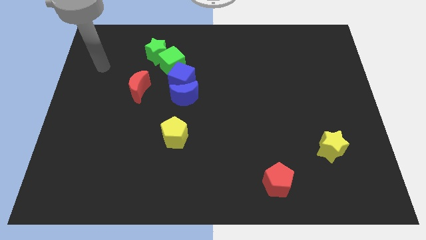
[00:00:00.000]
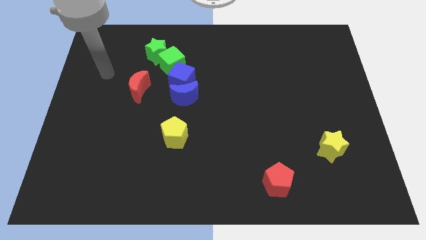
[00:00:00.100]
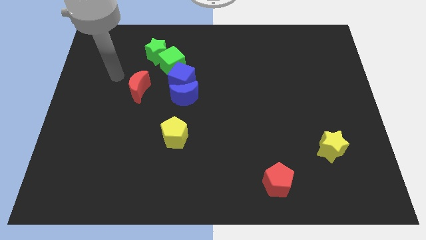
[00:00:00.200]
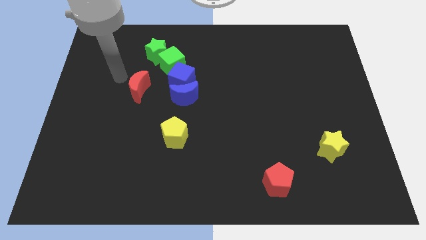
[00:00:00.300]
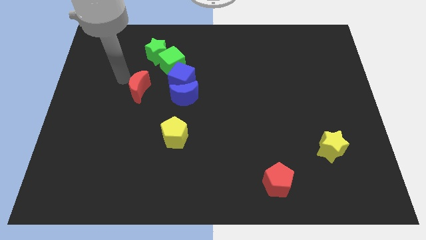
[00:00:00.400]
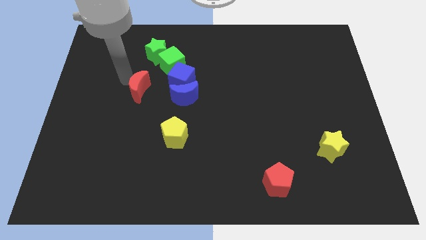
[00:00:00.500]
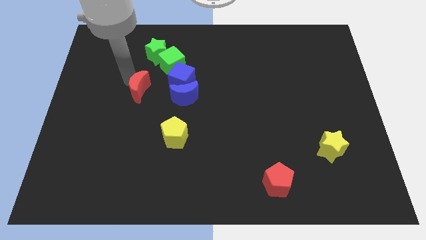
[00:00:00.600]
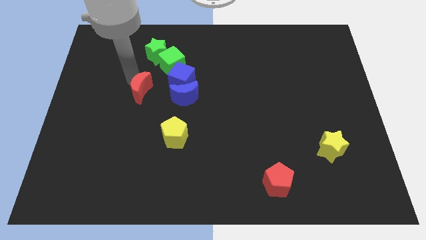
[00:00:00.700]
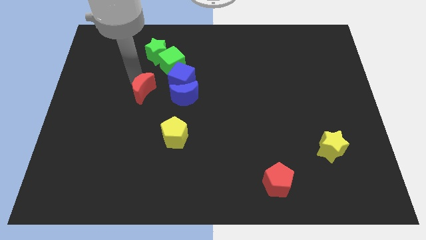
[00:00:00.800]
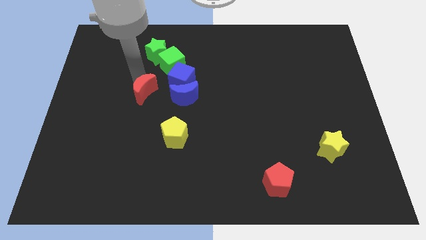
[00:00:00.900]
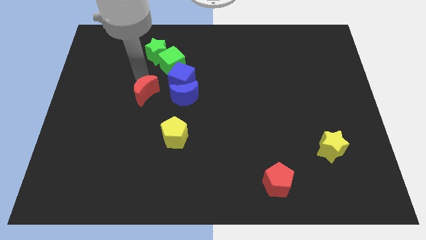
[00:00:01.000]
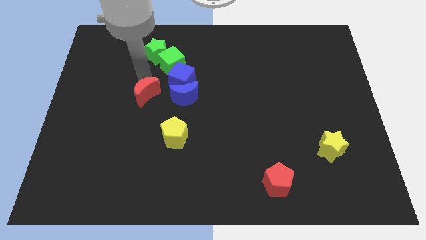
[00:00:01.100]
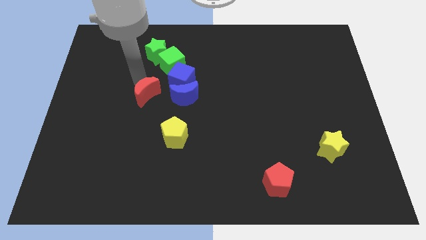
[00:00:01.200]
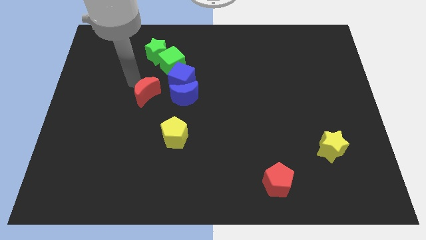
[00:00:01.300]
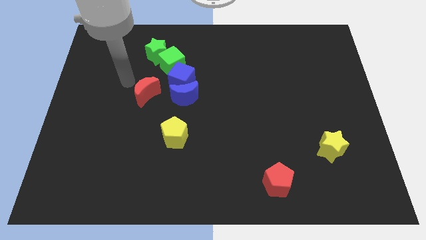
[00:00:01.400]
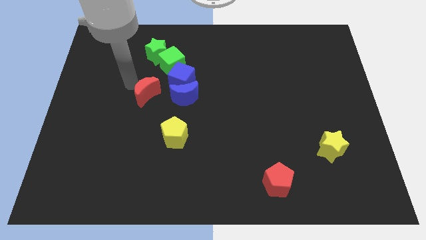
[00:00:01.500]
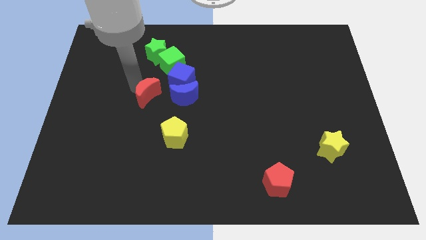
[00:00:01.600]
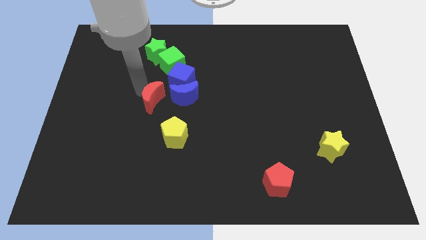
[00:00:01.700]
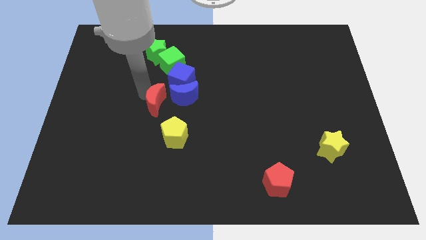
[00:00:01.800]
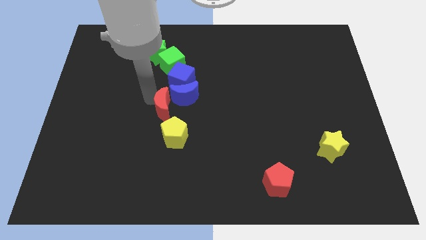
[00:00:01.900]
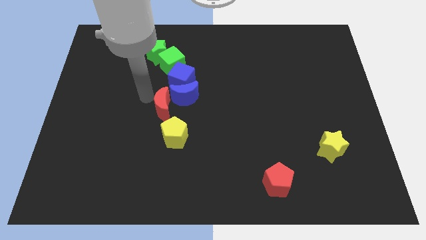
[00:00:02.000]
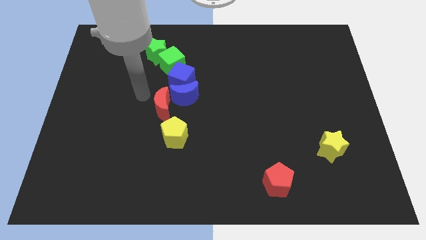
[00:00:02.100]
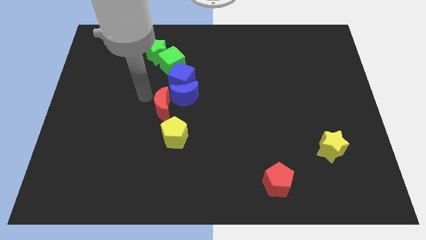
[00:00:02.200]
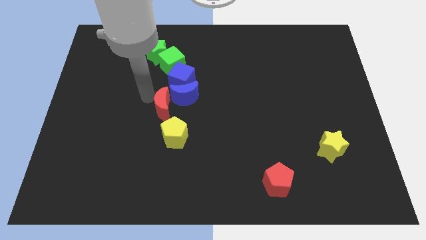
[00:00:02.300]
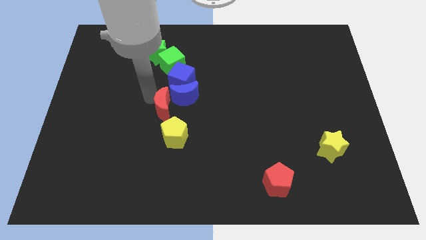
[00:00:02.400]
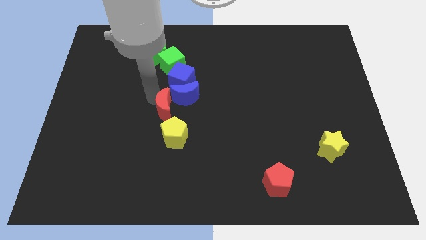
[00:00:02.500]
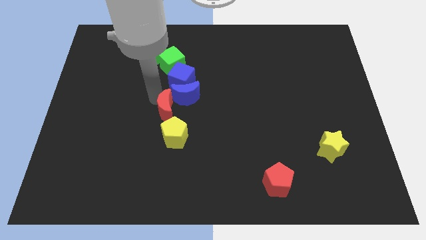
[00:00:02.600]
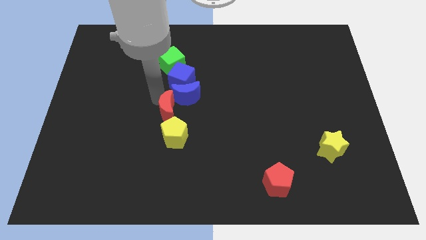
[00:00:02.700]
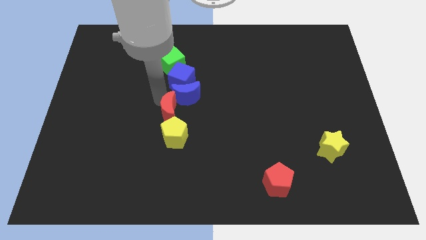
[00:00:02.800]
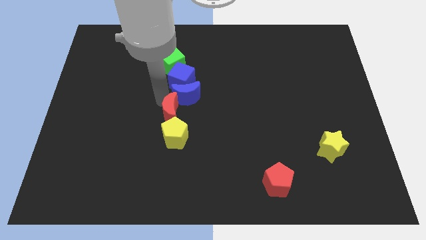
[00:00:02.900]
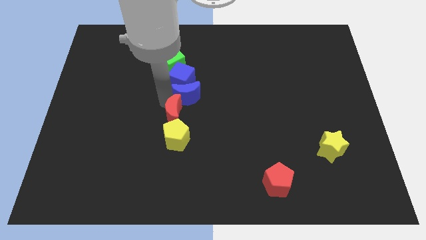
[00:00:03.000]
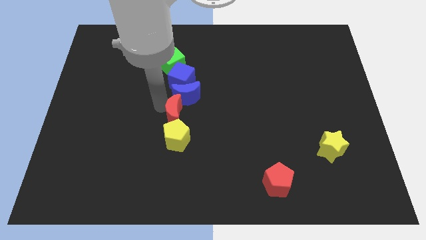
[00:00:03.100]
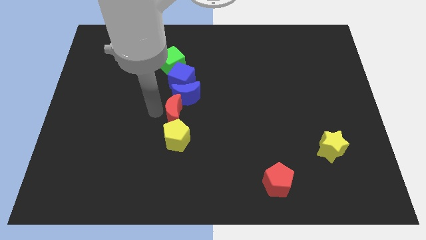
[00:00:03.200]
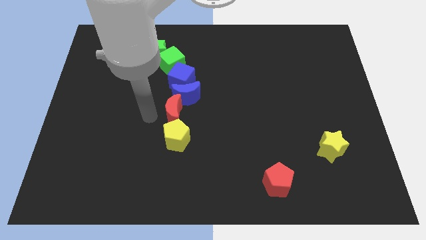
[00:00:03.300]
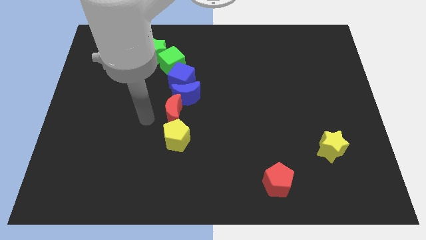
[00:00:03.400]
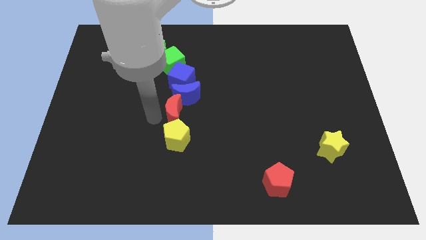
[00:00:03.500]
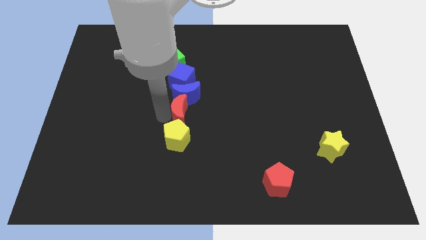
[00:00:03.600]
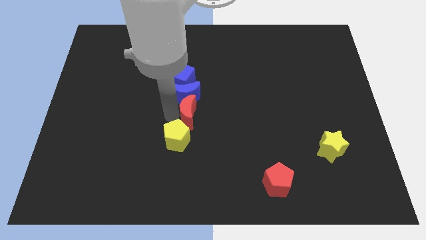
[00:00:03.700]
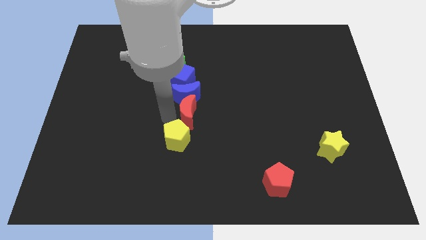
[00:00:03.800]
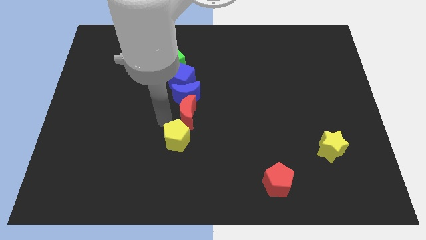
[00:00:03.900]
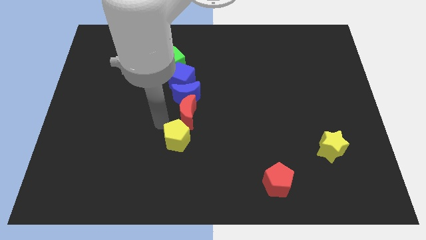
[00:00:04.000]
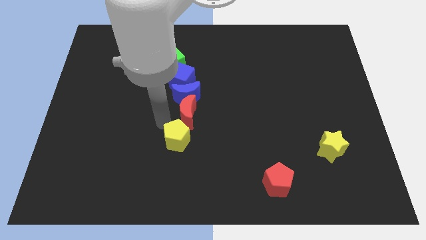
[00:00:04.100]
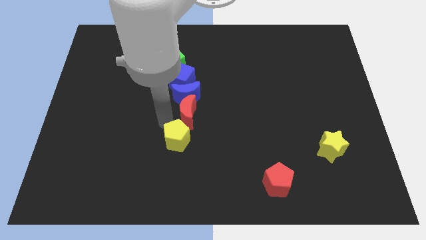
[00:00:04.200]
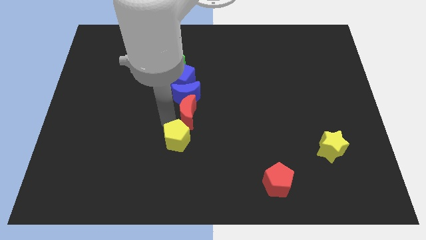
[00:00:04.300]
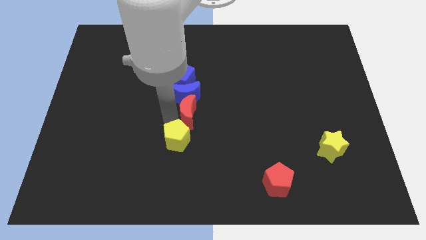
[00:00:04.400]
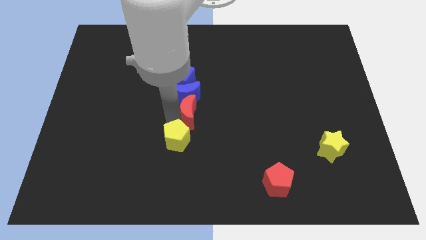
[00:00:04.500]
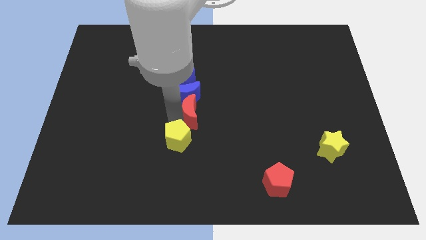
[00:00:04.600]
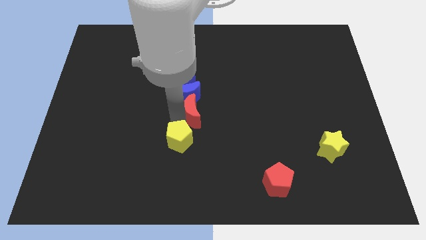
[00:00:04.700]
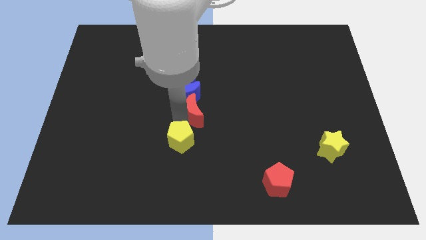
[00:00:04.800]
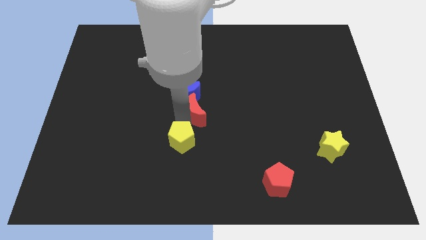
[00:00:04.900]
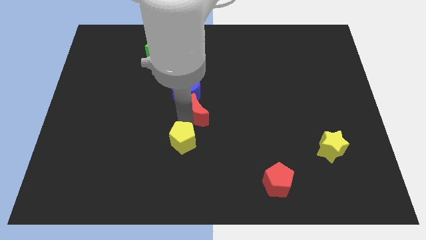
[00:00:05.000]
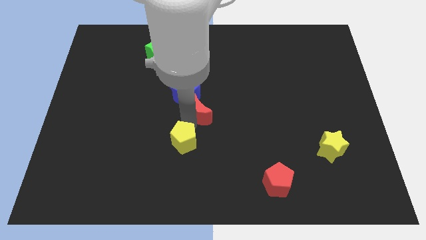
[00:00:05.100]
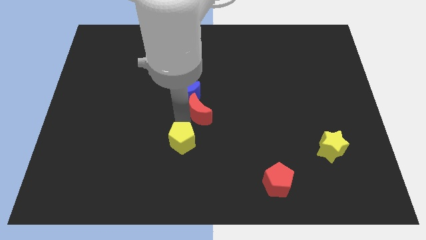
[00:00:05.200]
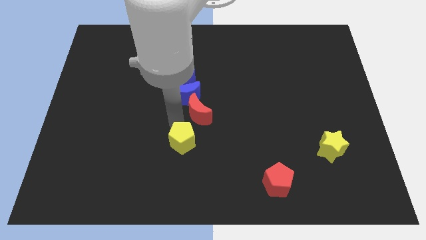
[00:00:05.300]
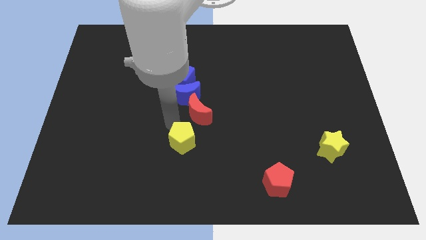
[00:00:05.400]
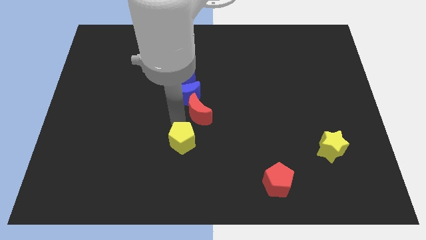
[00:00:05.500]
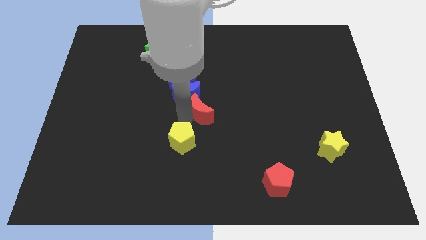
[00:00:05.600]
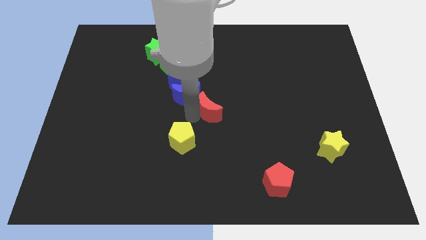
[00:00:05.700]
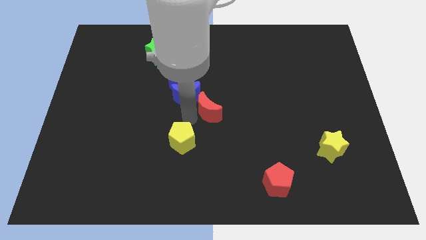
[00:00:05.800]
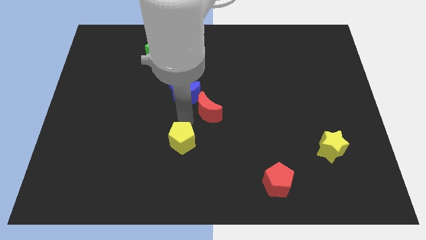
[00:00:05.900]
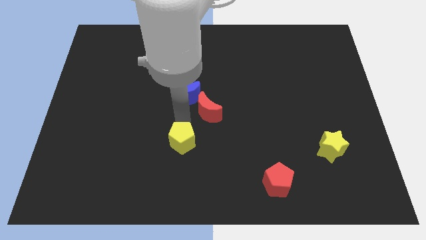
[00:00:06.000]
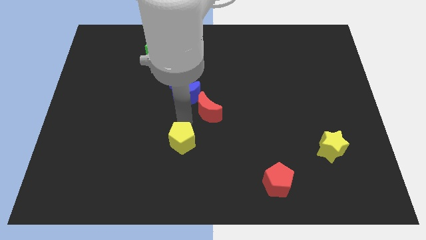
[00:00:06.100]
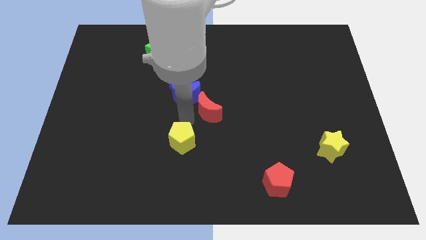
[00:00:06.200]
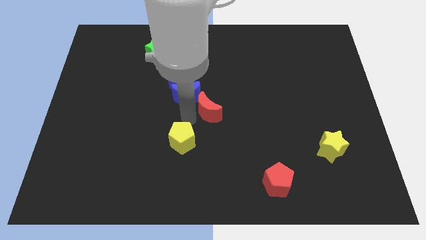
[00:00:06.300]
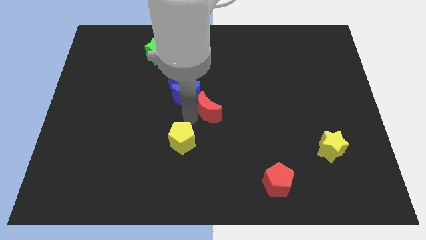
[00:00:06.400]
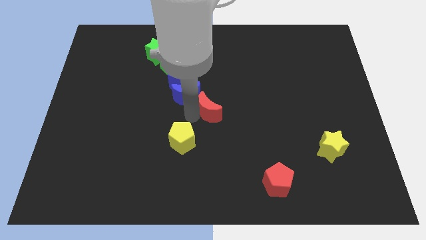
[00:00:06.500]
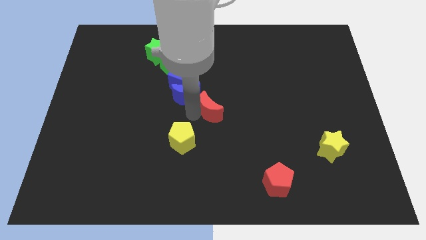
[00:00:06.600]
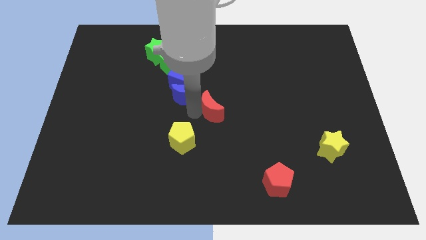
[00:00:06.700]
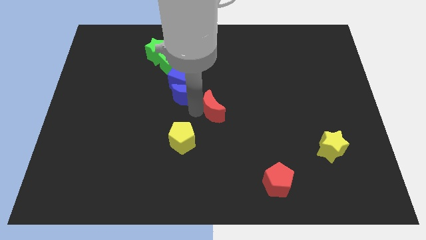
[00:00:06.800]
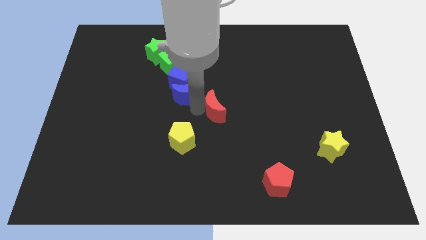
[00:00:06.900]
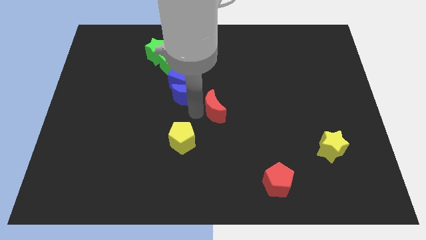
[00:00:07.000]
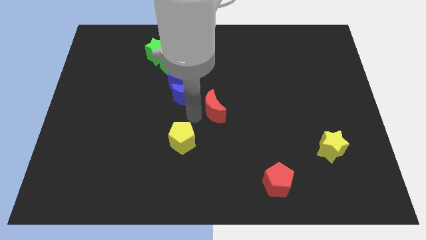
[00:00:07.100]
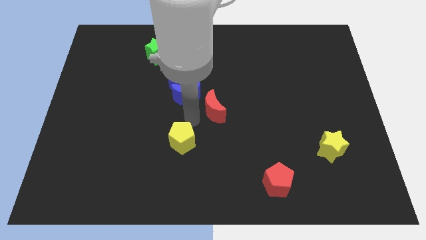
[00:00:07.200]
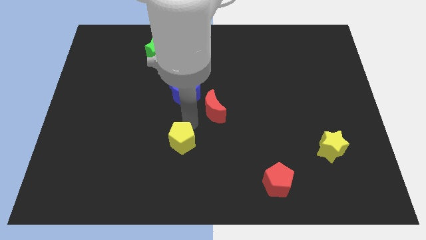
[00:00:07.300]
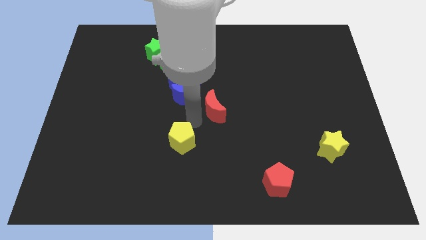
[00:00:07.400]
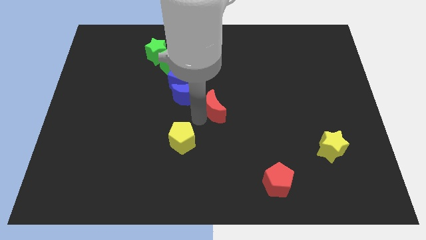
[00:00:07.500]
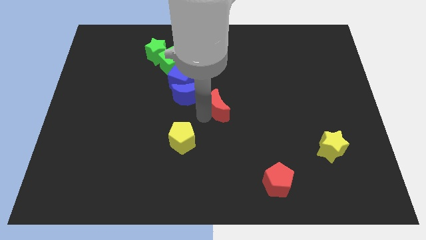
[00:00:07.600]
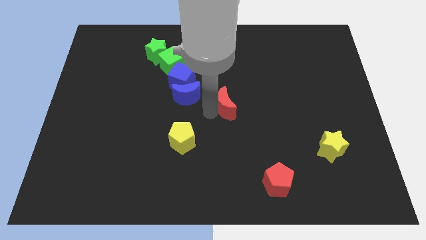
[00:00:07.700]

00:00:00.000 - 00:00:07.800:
slide the red moon right

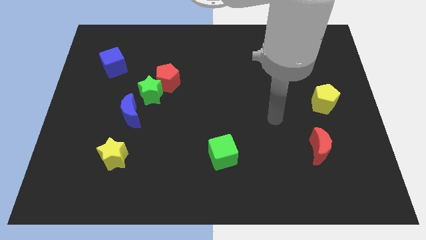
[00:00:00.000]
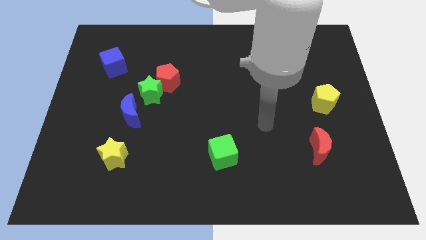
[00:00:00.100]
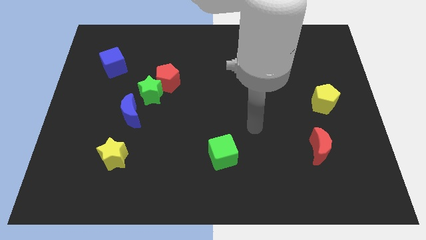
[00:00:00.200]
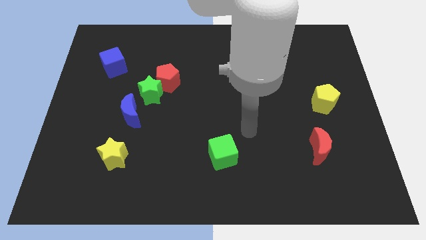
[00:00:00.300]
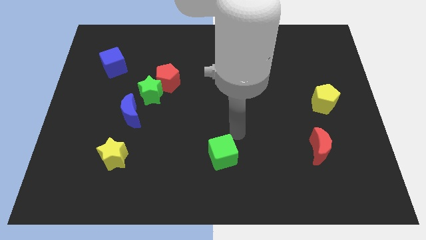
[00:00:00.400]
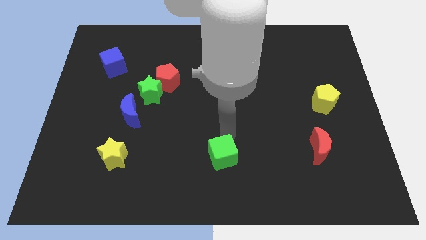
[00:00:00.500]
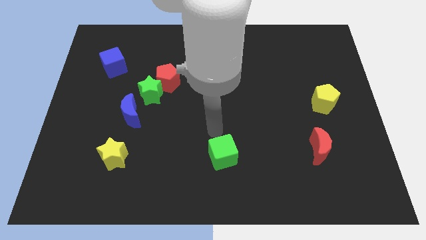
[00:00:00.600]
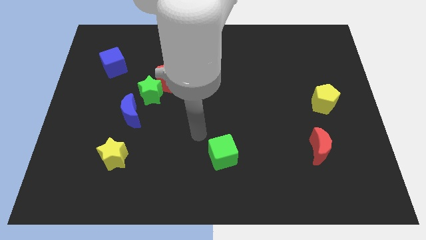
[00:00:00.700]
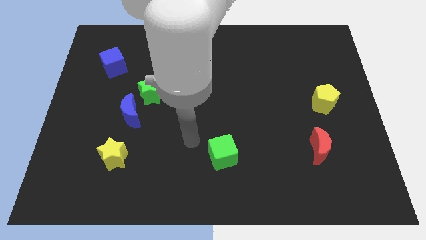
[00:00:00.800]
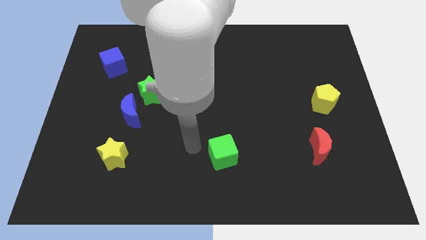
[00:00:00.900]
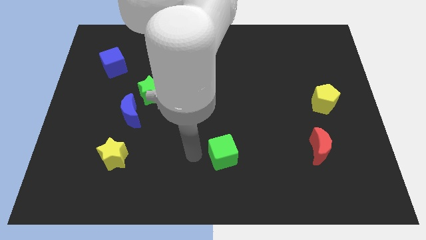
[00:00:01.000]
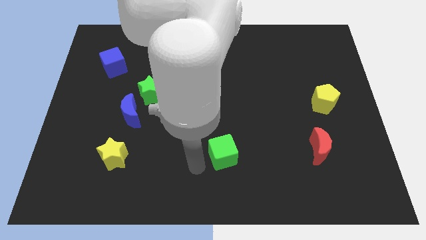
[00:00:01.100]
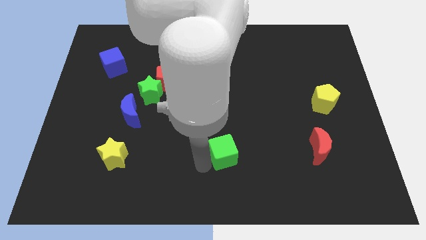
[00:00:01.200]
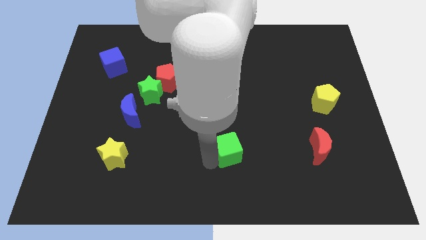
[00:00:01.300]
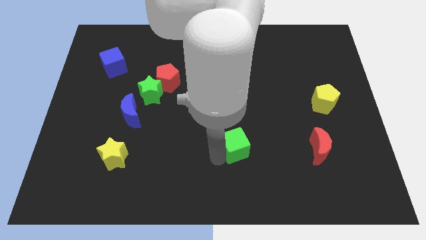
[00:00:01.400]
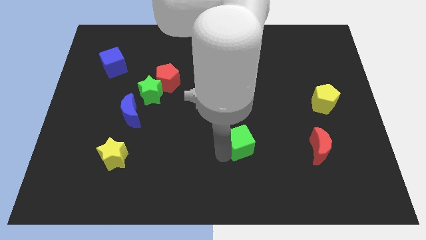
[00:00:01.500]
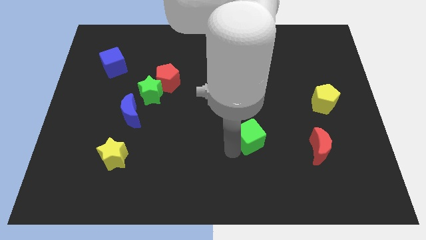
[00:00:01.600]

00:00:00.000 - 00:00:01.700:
move the green cube diagonally upwards and right slightly
